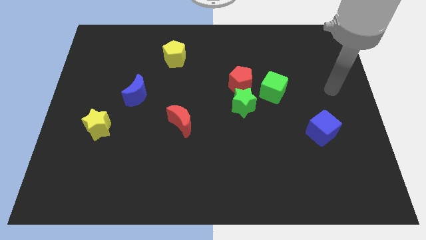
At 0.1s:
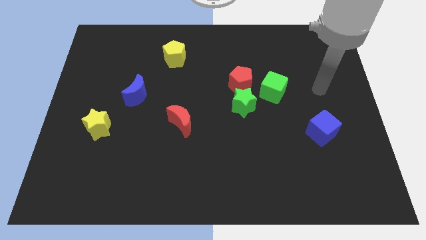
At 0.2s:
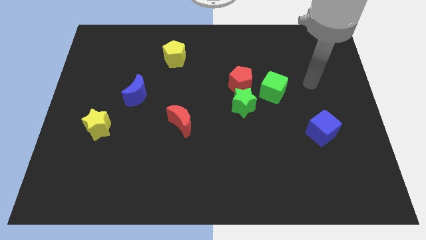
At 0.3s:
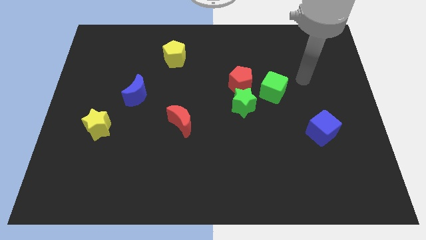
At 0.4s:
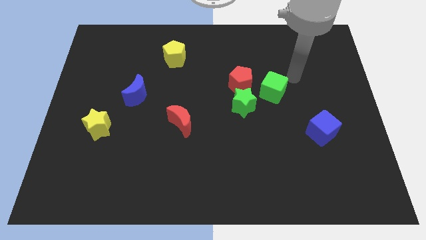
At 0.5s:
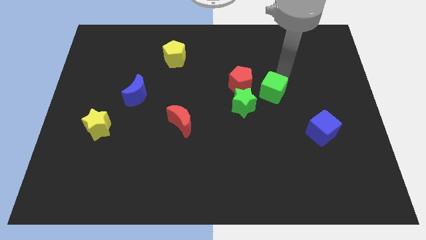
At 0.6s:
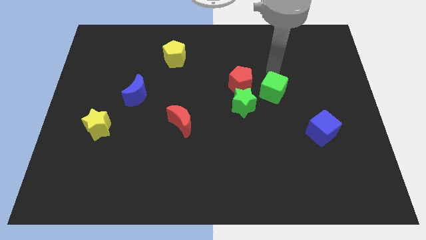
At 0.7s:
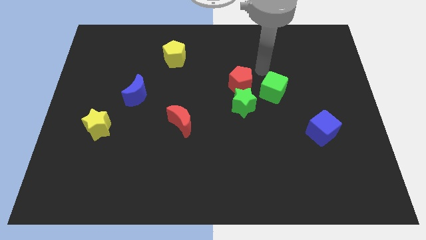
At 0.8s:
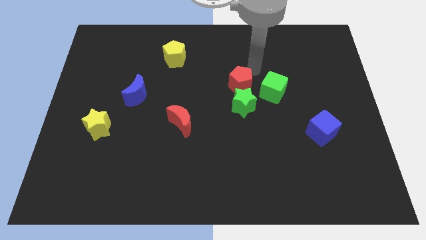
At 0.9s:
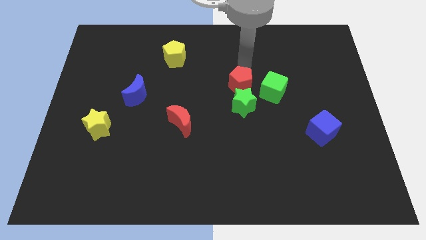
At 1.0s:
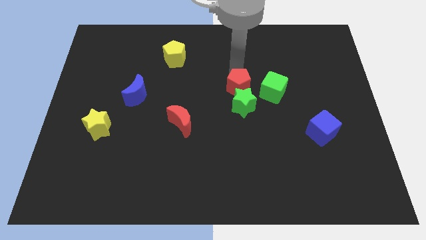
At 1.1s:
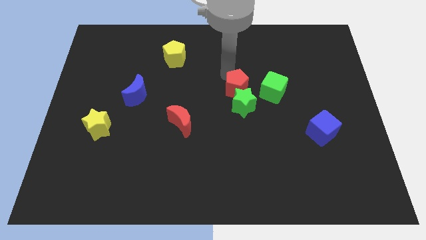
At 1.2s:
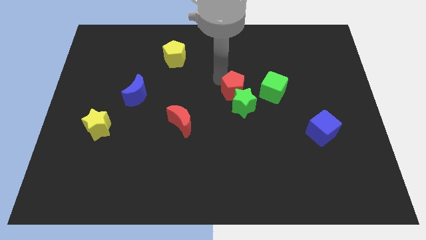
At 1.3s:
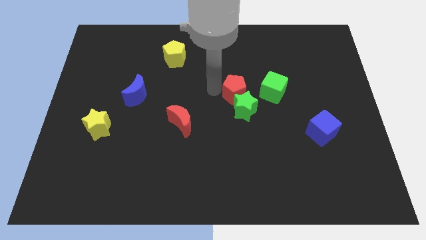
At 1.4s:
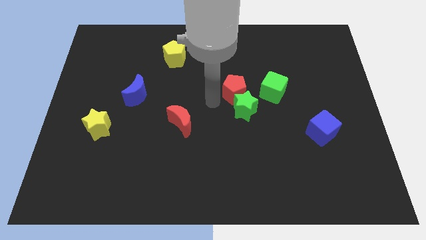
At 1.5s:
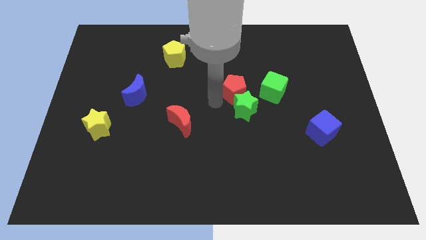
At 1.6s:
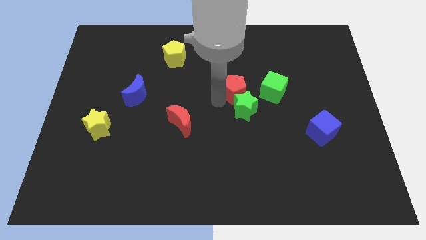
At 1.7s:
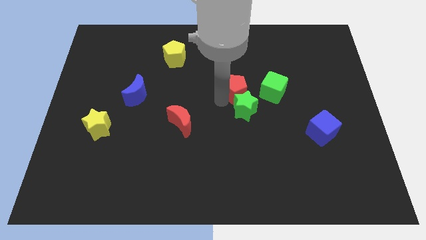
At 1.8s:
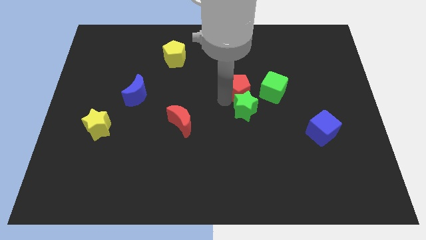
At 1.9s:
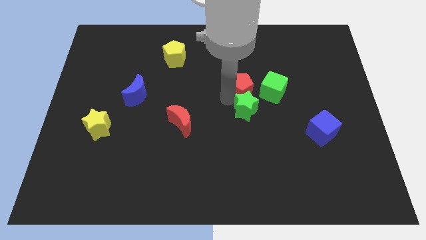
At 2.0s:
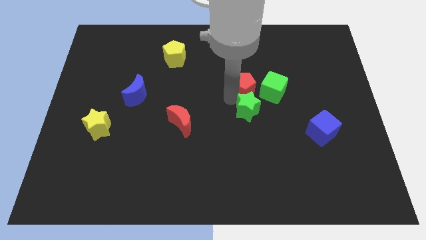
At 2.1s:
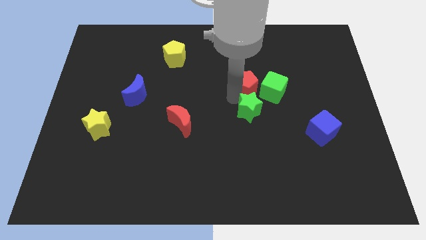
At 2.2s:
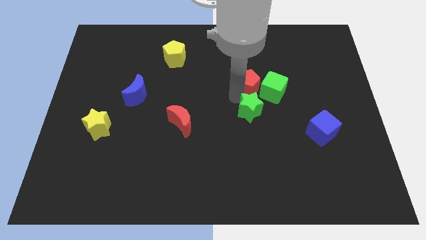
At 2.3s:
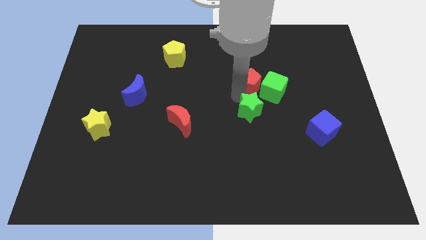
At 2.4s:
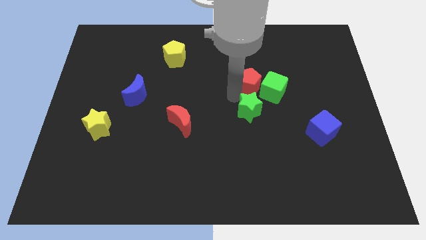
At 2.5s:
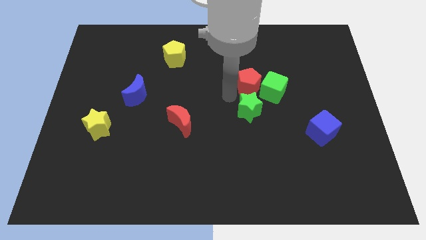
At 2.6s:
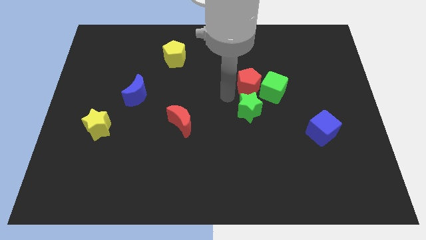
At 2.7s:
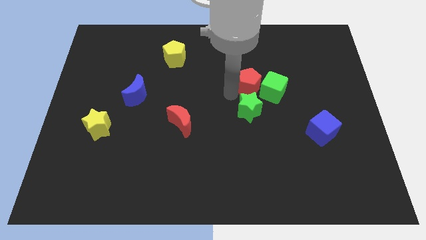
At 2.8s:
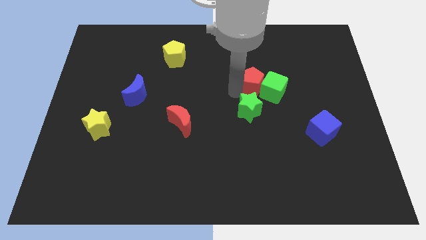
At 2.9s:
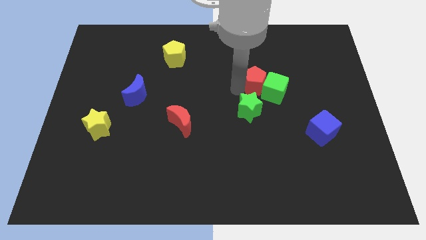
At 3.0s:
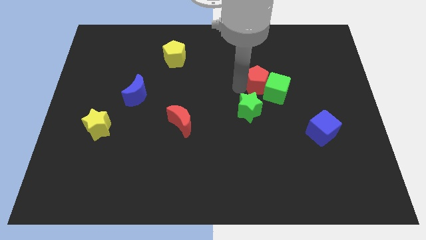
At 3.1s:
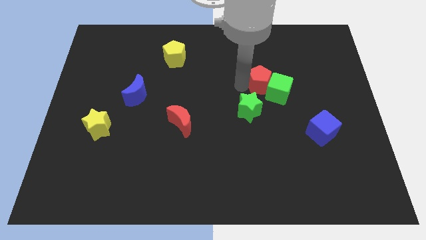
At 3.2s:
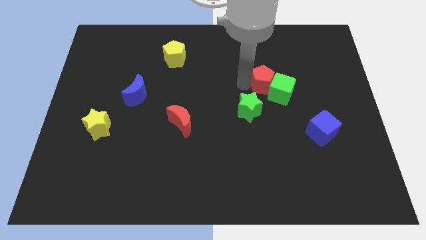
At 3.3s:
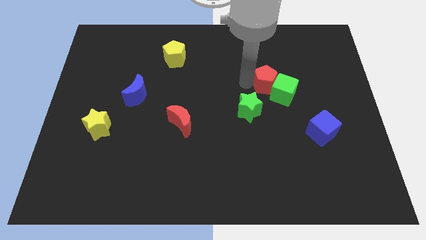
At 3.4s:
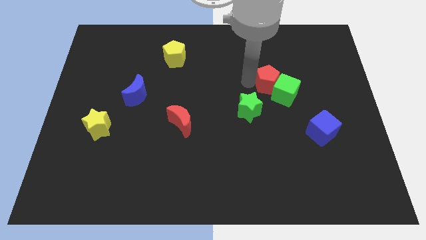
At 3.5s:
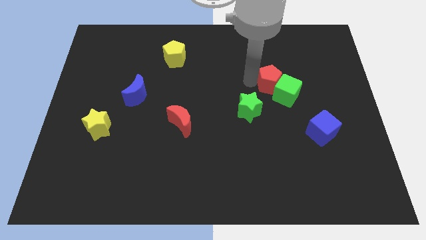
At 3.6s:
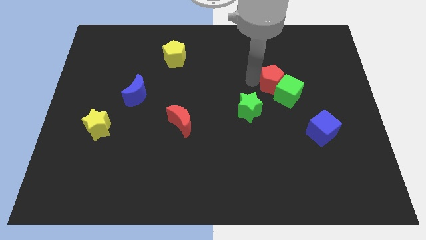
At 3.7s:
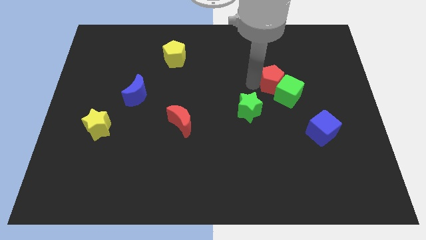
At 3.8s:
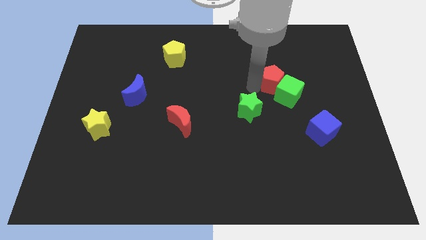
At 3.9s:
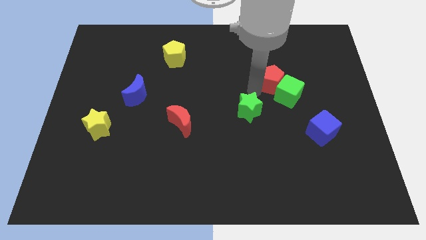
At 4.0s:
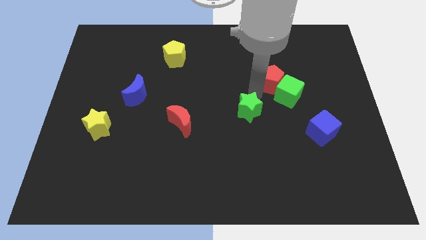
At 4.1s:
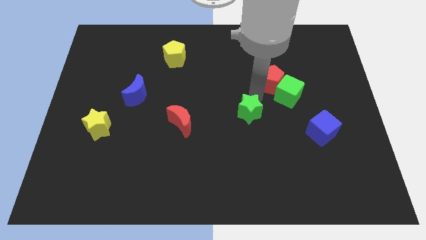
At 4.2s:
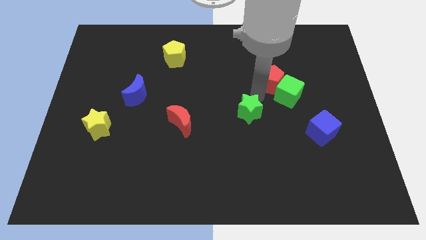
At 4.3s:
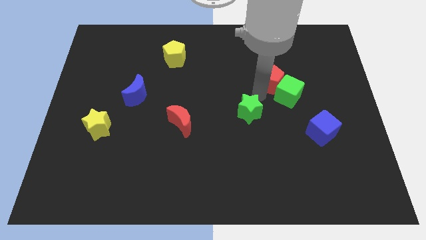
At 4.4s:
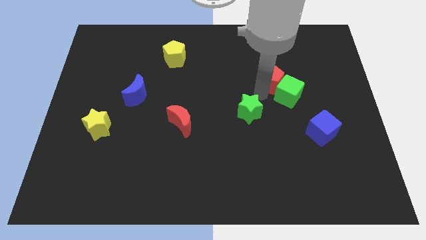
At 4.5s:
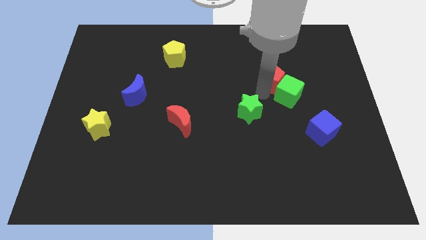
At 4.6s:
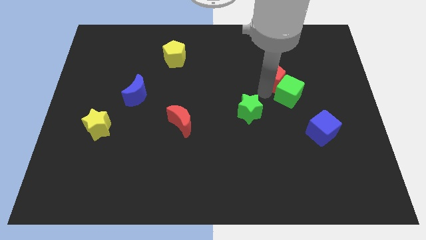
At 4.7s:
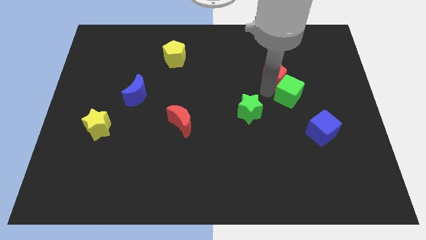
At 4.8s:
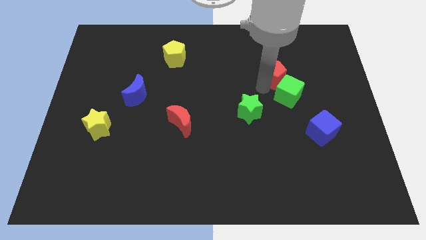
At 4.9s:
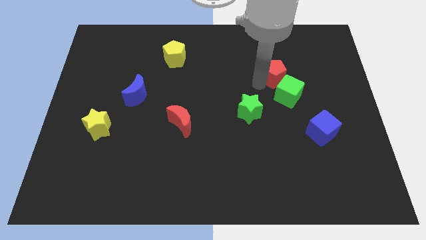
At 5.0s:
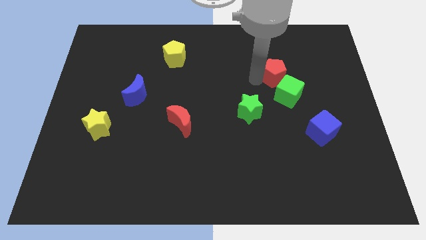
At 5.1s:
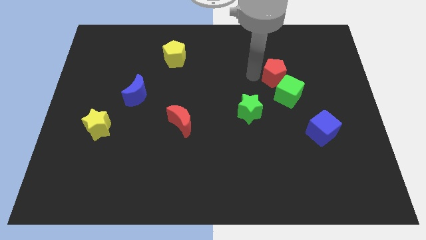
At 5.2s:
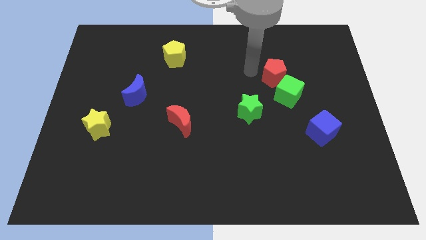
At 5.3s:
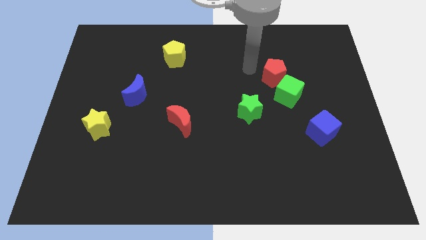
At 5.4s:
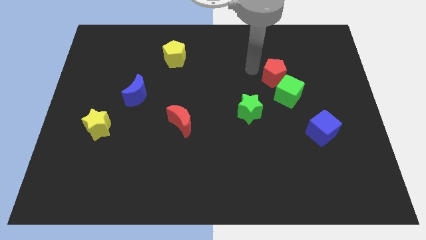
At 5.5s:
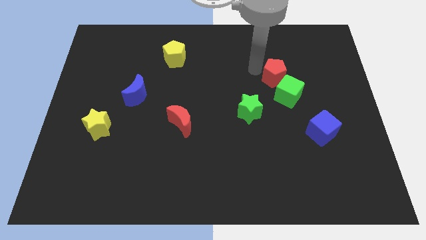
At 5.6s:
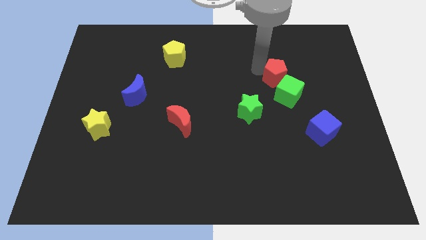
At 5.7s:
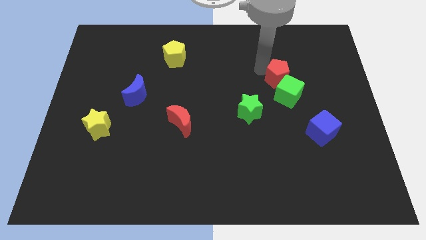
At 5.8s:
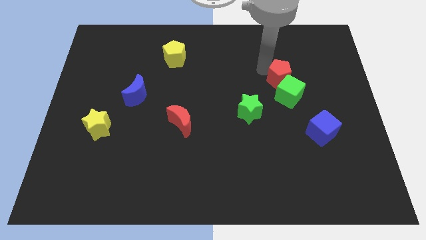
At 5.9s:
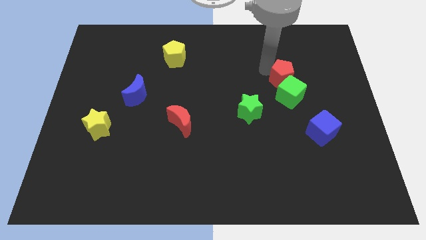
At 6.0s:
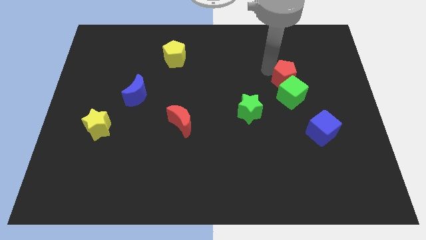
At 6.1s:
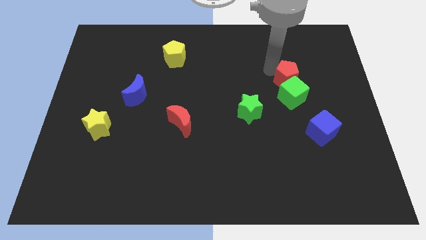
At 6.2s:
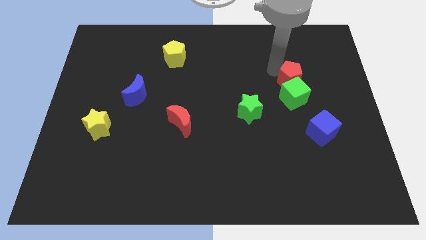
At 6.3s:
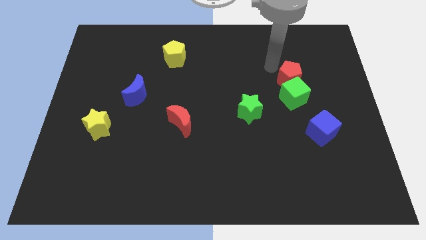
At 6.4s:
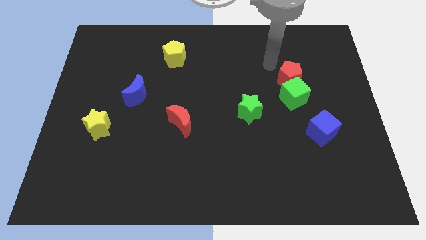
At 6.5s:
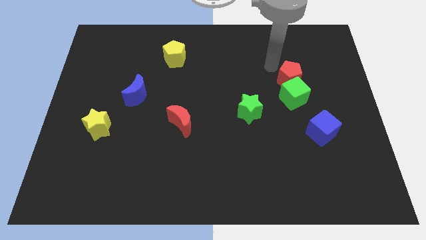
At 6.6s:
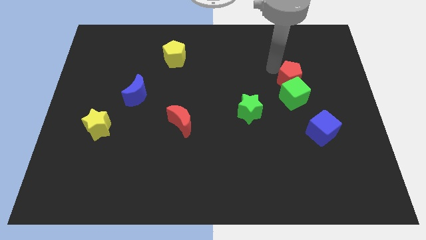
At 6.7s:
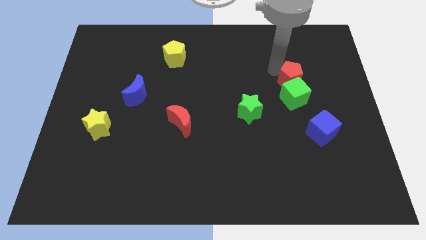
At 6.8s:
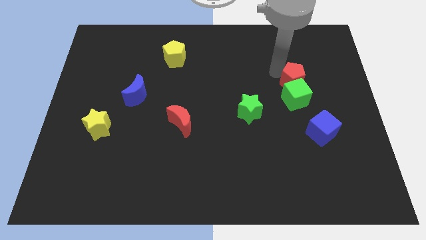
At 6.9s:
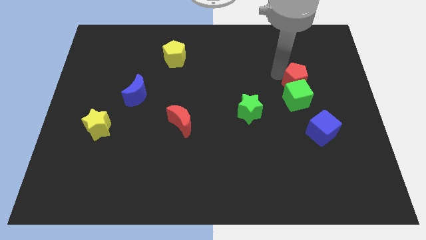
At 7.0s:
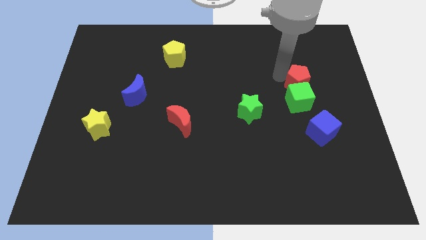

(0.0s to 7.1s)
put the red pentagon above the blue cube
